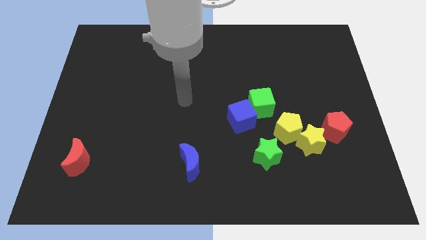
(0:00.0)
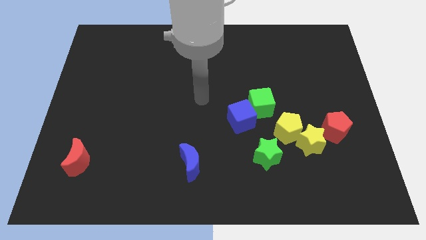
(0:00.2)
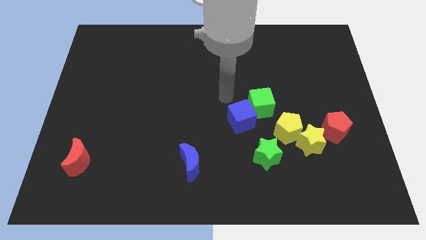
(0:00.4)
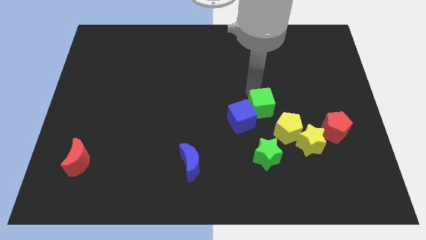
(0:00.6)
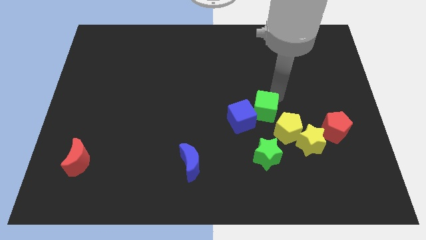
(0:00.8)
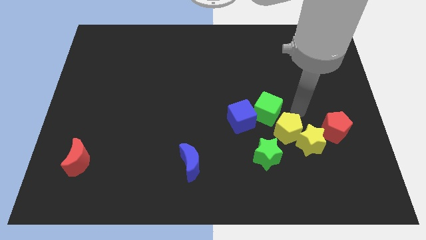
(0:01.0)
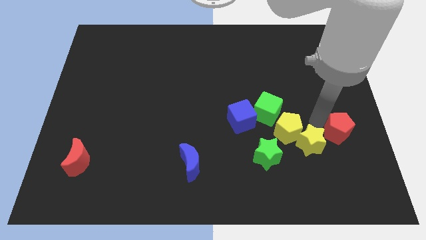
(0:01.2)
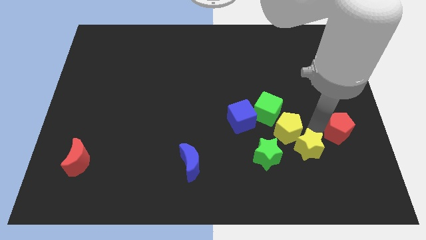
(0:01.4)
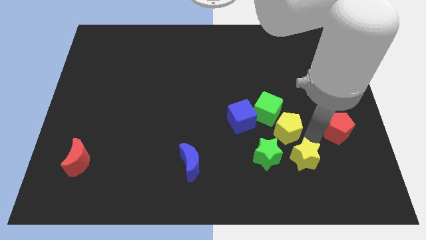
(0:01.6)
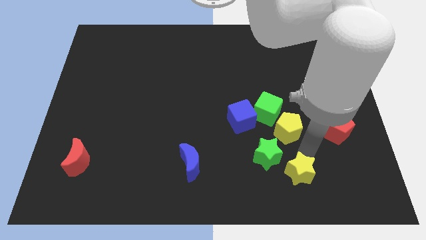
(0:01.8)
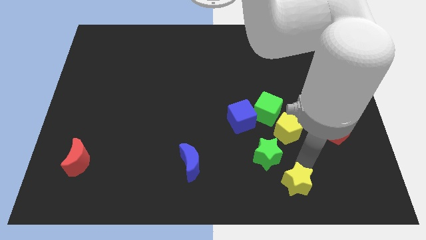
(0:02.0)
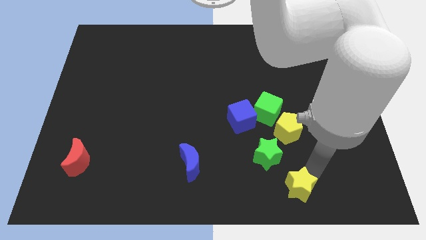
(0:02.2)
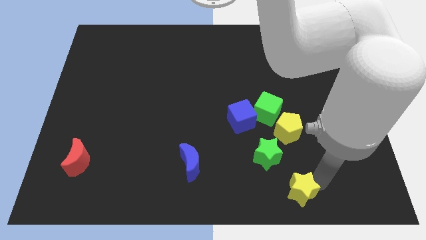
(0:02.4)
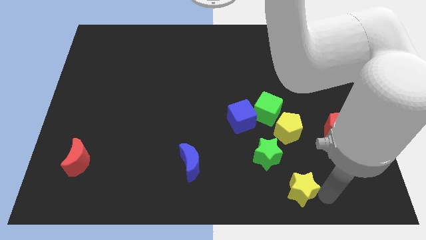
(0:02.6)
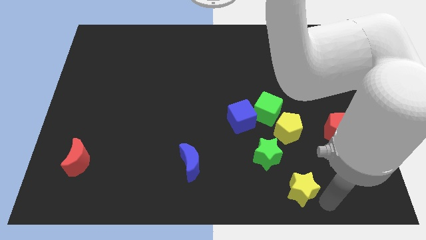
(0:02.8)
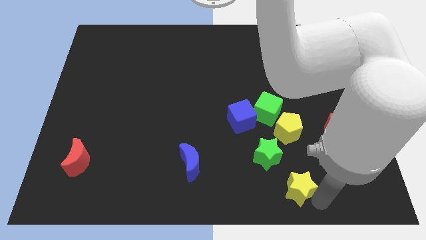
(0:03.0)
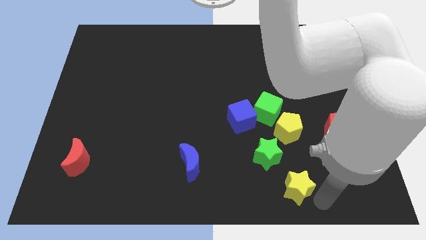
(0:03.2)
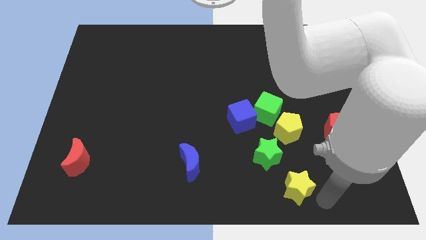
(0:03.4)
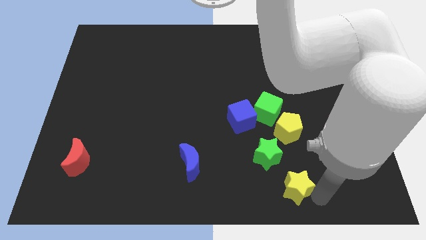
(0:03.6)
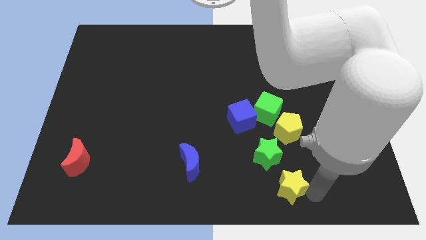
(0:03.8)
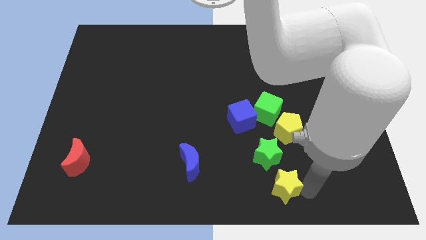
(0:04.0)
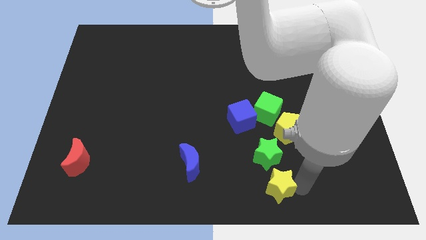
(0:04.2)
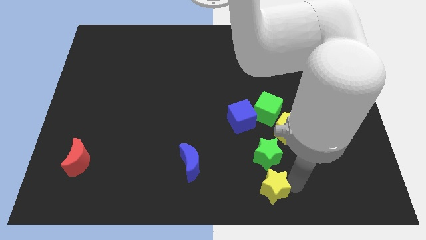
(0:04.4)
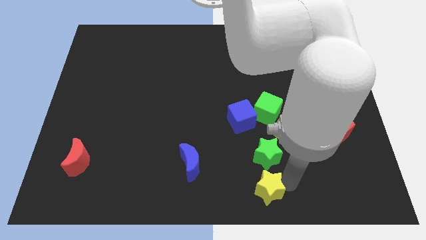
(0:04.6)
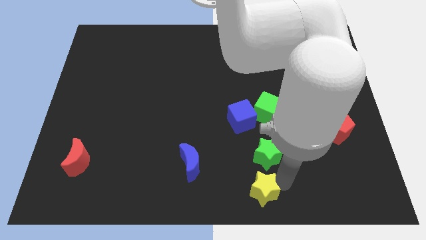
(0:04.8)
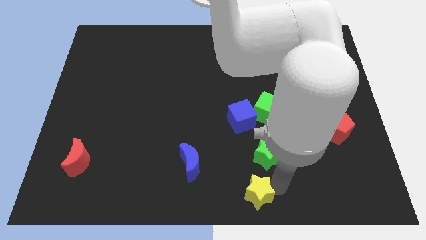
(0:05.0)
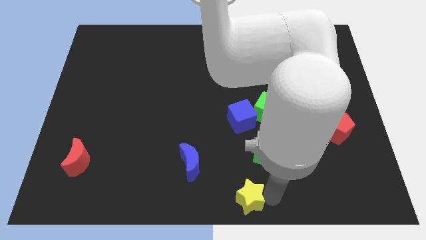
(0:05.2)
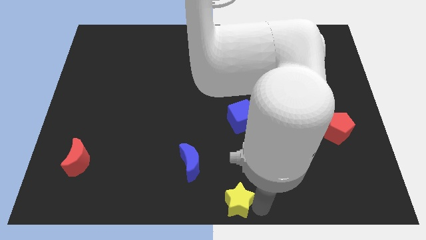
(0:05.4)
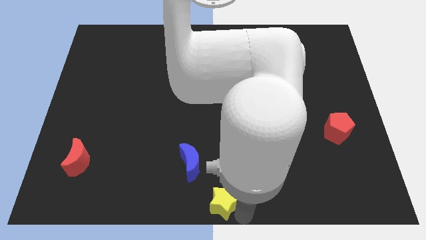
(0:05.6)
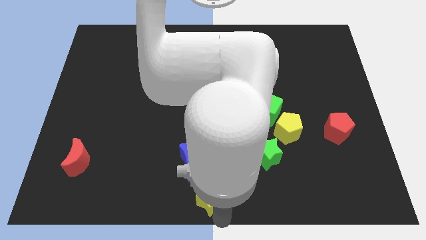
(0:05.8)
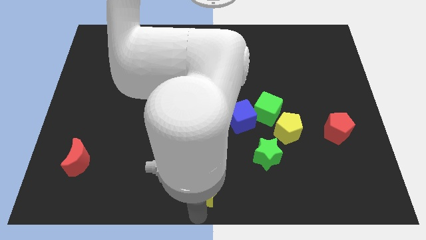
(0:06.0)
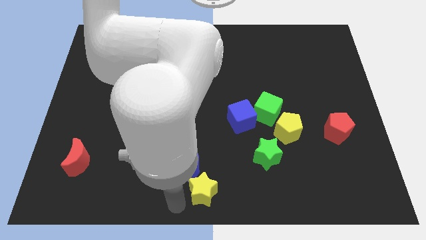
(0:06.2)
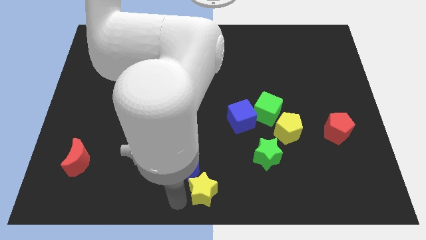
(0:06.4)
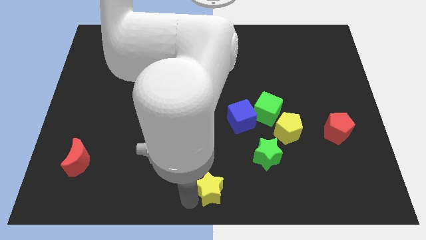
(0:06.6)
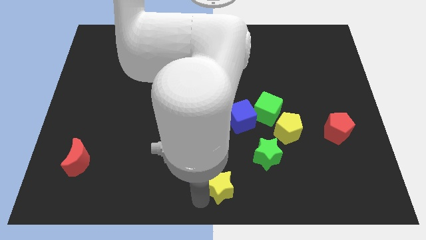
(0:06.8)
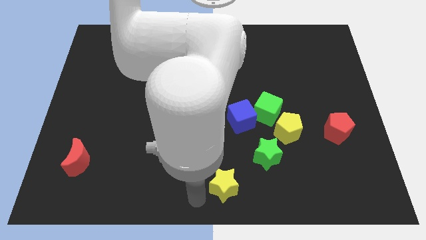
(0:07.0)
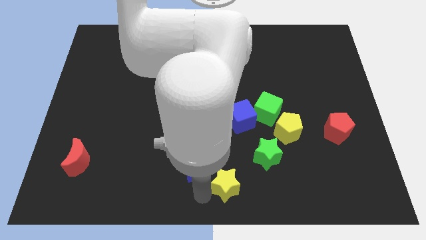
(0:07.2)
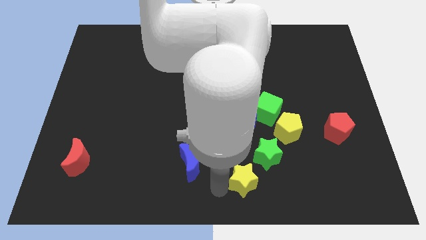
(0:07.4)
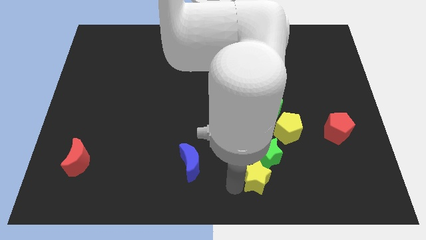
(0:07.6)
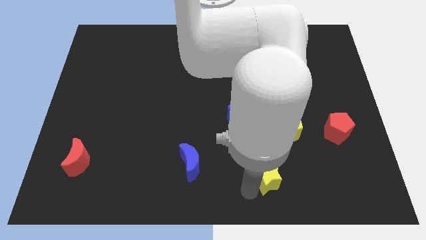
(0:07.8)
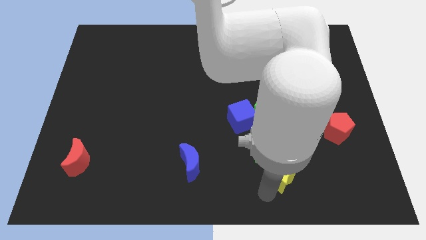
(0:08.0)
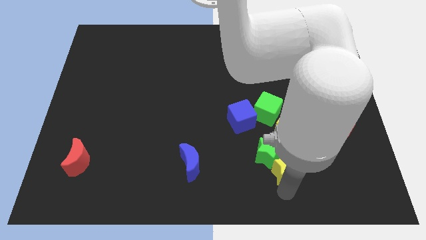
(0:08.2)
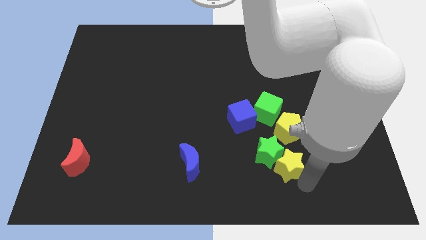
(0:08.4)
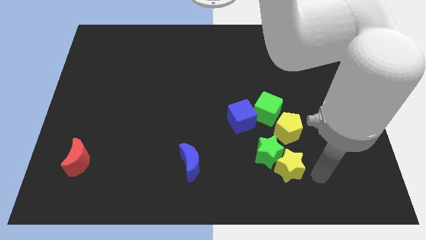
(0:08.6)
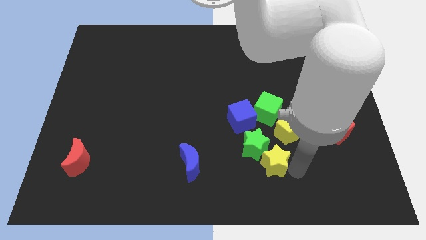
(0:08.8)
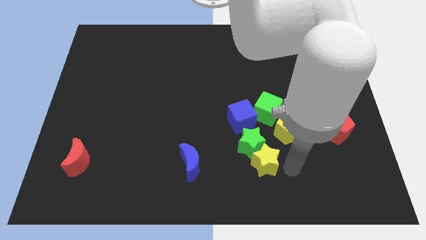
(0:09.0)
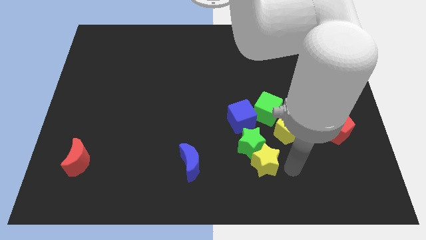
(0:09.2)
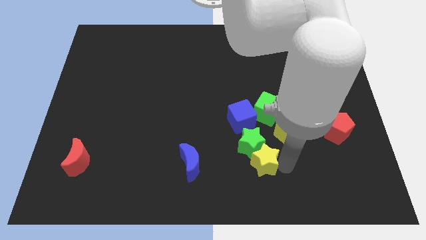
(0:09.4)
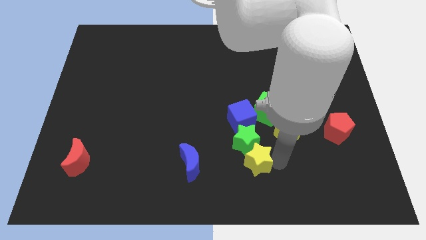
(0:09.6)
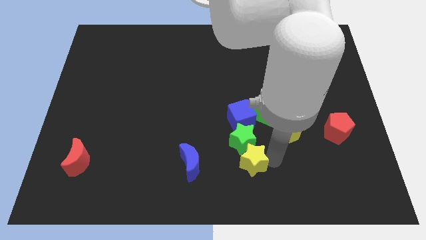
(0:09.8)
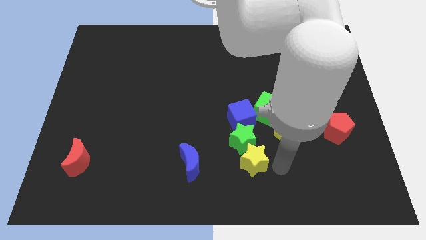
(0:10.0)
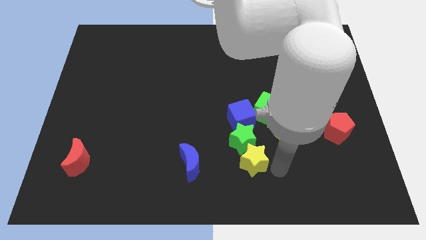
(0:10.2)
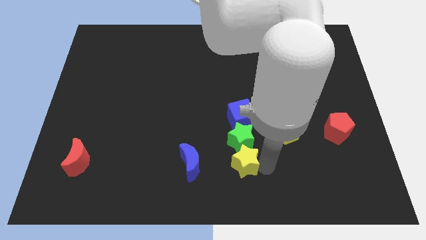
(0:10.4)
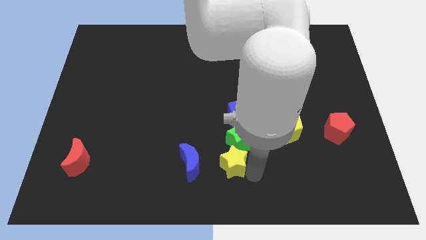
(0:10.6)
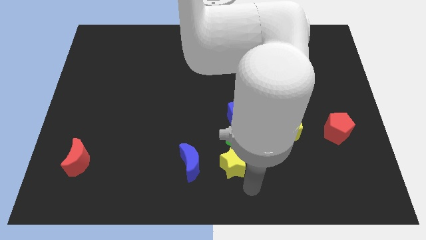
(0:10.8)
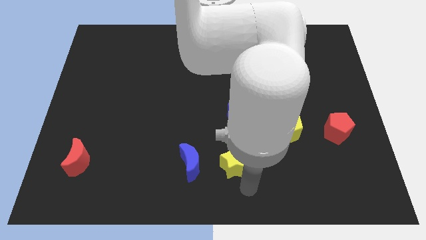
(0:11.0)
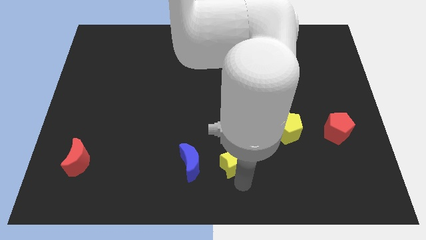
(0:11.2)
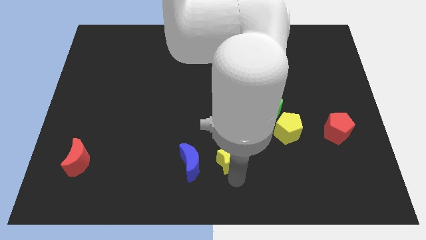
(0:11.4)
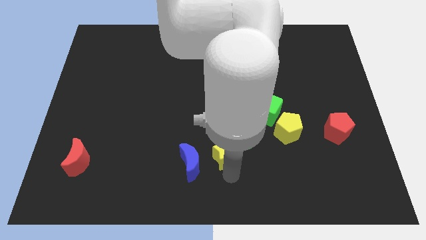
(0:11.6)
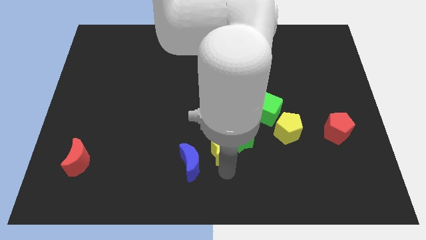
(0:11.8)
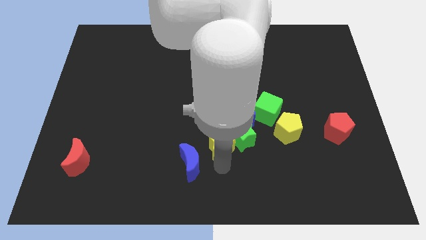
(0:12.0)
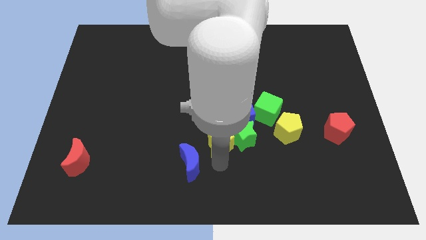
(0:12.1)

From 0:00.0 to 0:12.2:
push the yellow star to the left

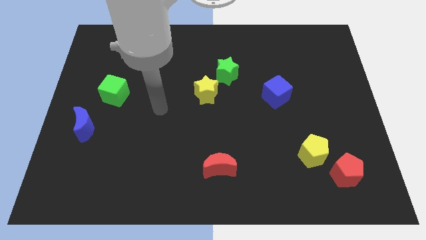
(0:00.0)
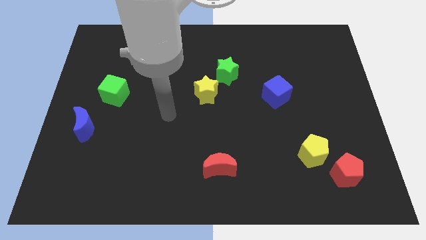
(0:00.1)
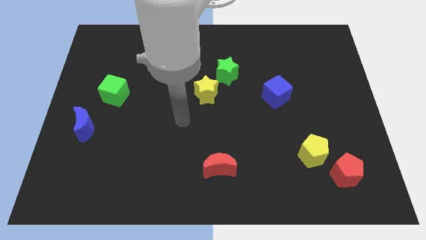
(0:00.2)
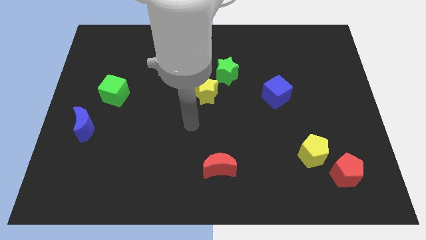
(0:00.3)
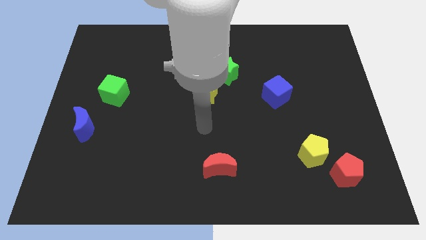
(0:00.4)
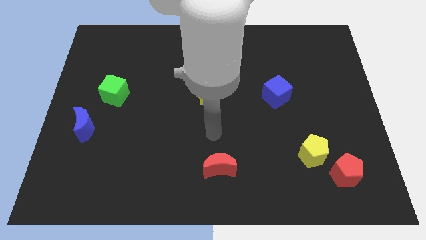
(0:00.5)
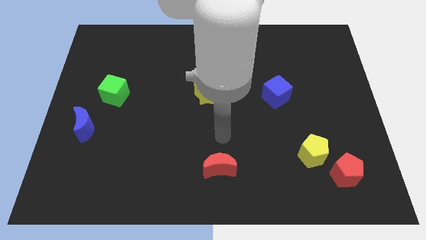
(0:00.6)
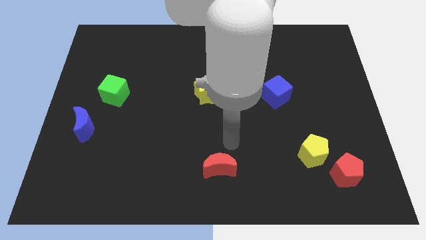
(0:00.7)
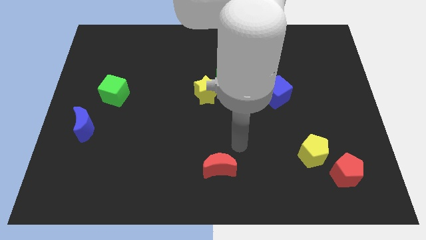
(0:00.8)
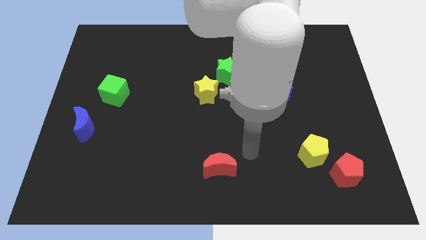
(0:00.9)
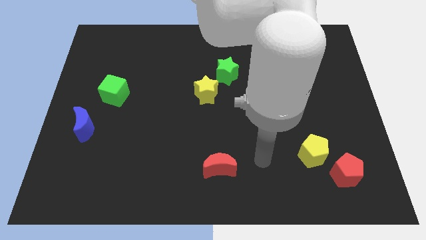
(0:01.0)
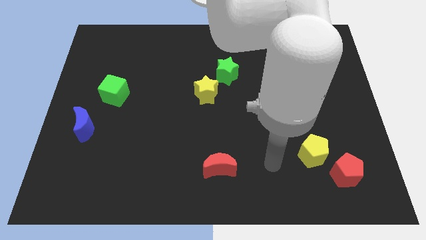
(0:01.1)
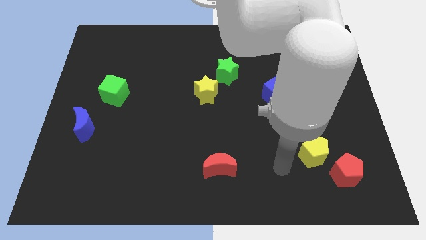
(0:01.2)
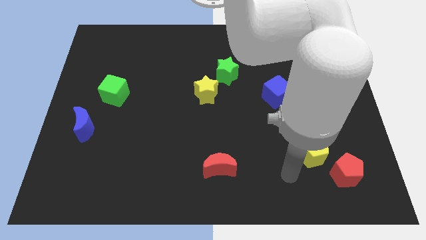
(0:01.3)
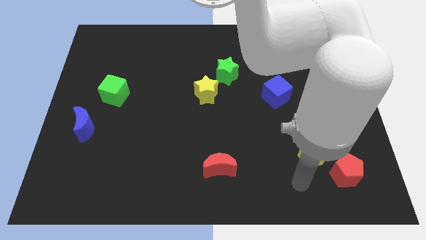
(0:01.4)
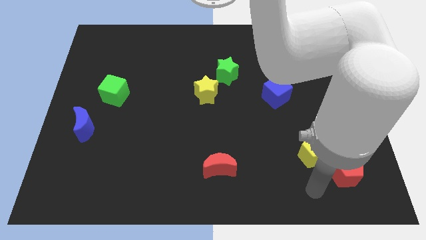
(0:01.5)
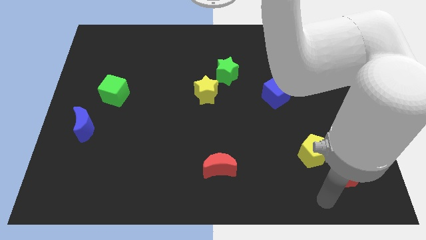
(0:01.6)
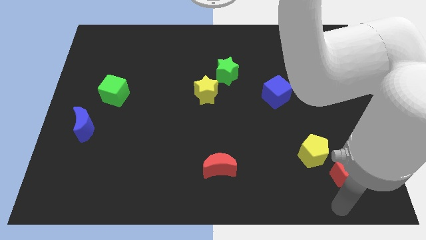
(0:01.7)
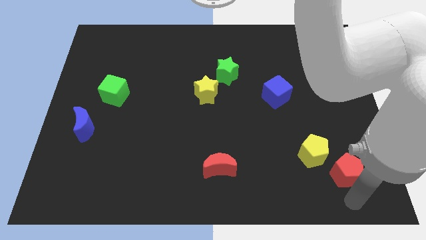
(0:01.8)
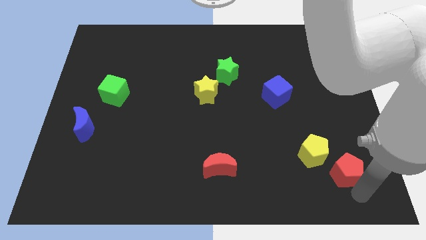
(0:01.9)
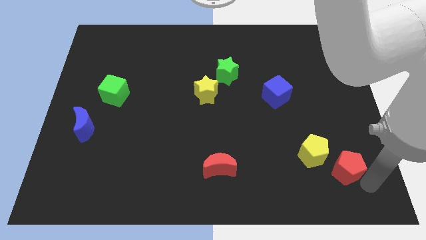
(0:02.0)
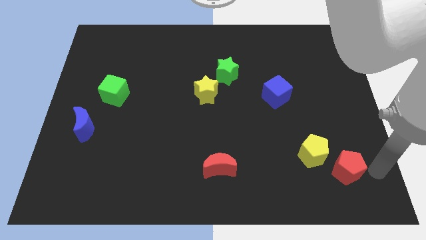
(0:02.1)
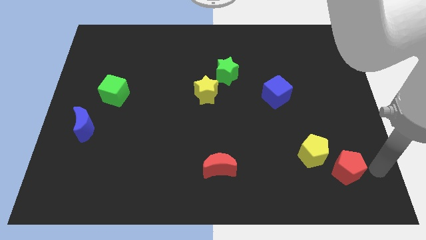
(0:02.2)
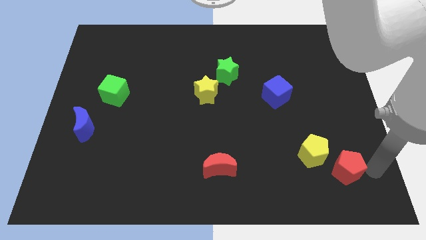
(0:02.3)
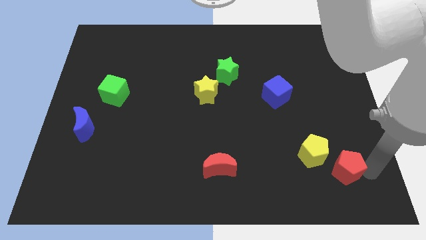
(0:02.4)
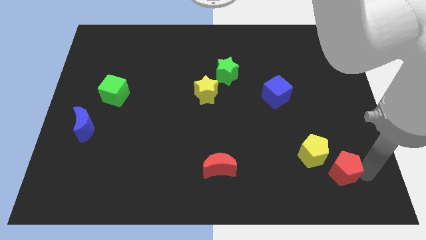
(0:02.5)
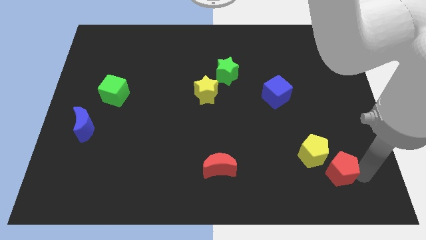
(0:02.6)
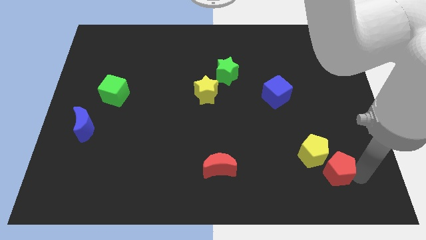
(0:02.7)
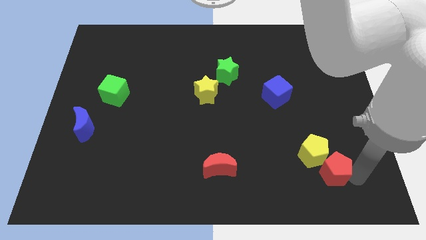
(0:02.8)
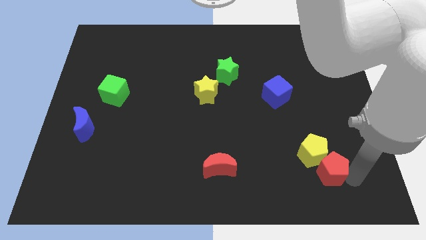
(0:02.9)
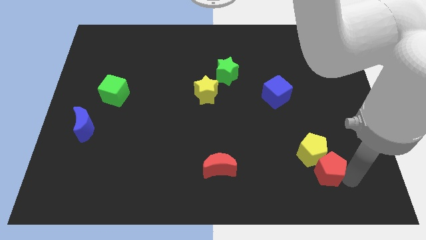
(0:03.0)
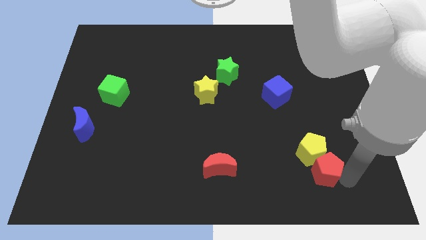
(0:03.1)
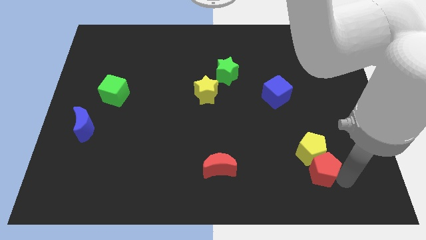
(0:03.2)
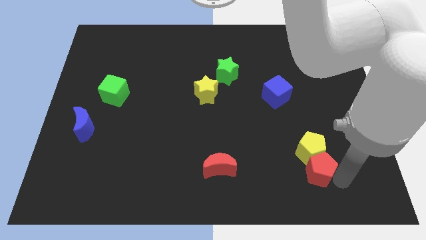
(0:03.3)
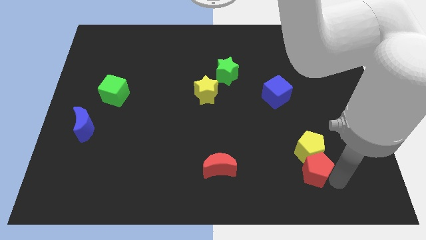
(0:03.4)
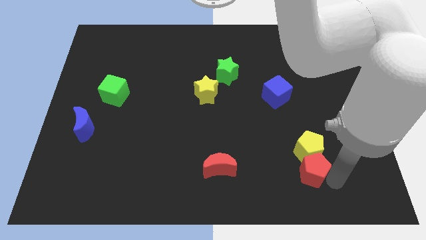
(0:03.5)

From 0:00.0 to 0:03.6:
slide the red pentagon to the left a little bit
